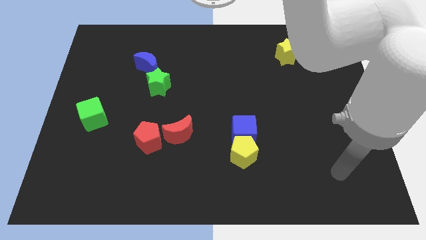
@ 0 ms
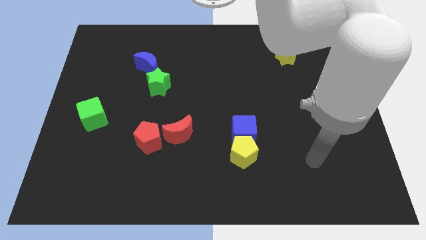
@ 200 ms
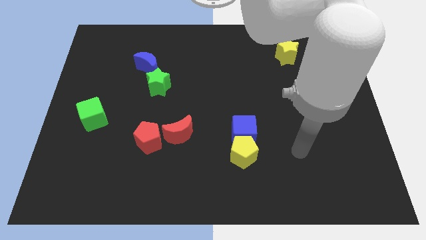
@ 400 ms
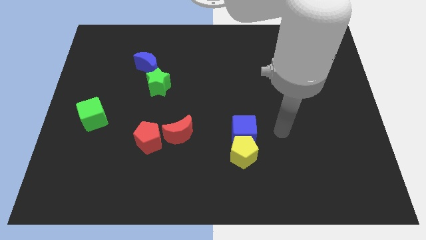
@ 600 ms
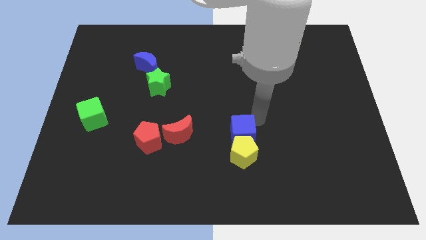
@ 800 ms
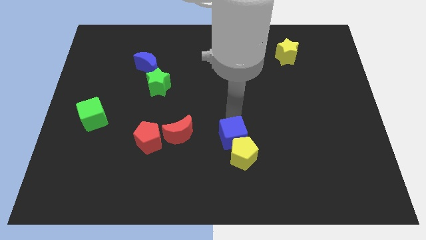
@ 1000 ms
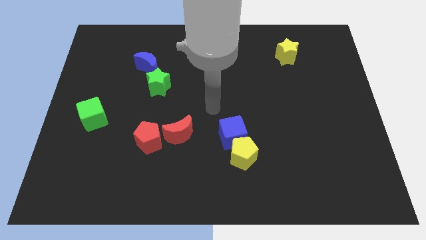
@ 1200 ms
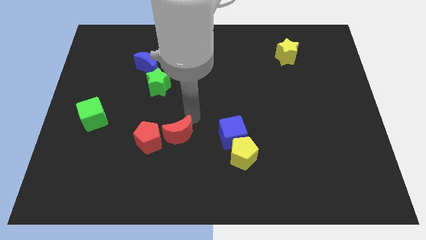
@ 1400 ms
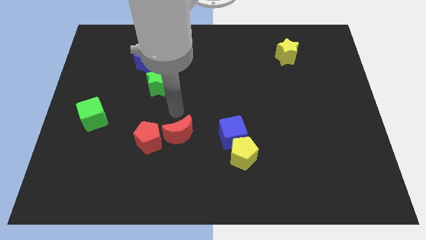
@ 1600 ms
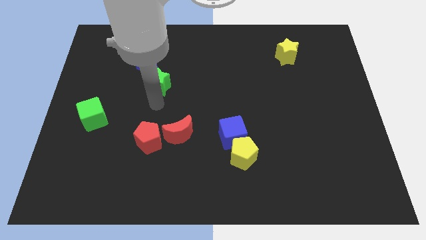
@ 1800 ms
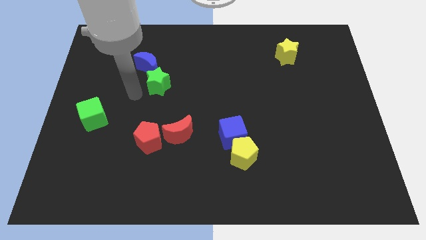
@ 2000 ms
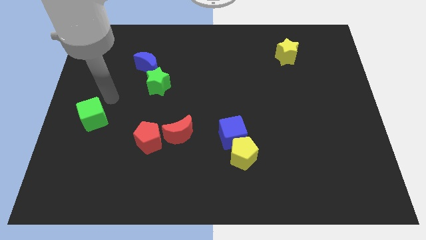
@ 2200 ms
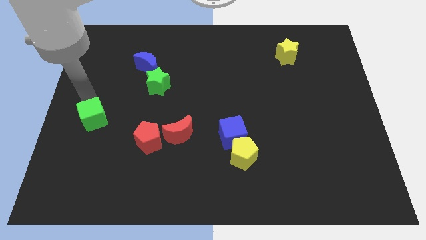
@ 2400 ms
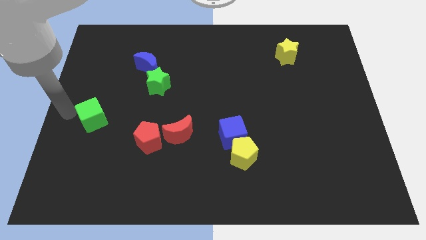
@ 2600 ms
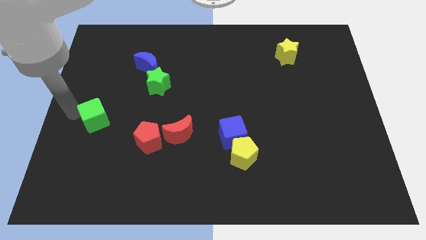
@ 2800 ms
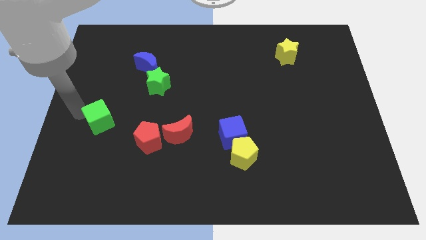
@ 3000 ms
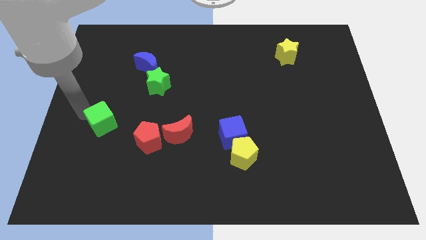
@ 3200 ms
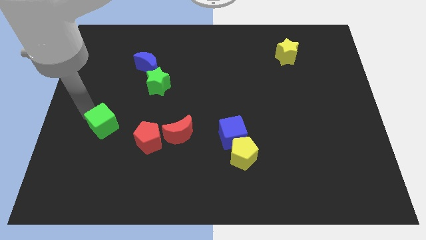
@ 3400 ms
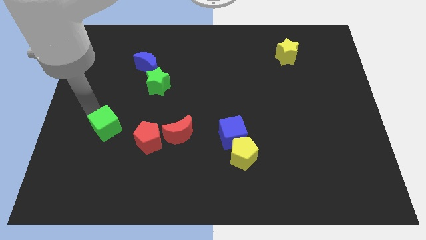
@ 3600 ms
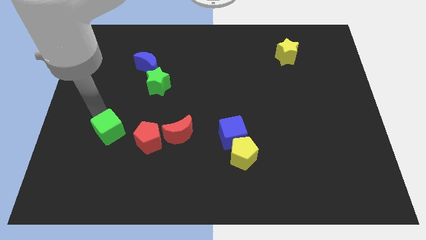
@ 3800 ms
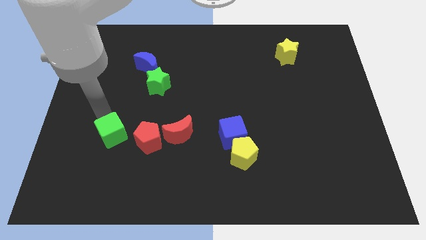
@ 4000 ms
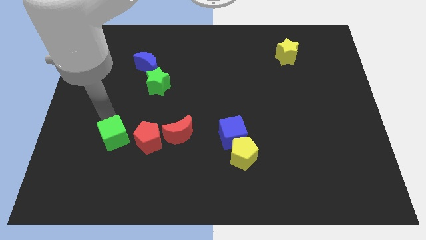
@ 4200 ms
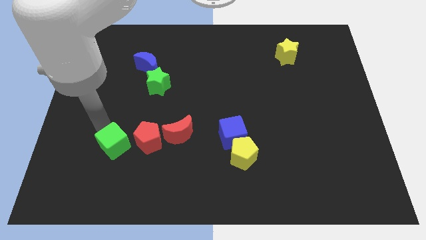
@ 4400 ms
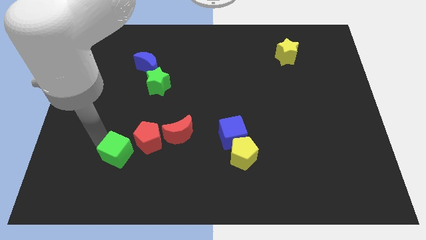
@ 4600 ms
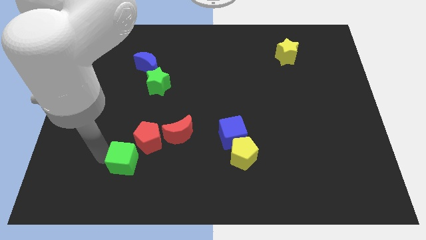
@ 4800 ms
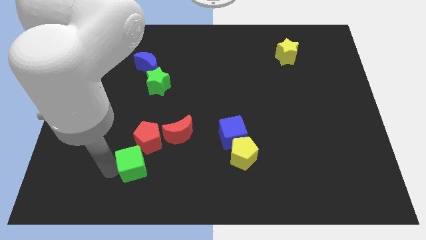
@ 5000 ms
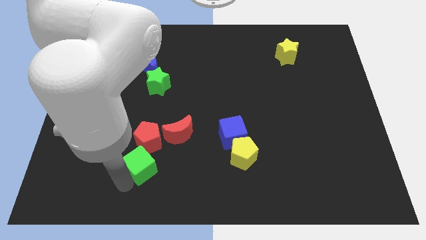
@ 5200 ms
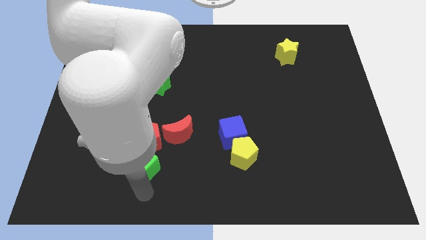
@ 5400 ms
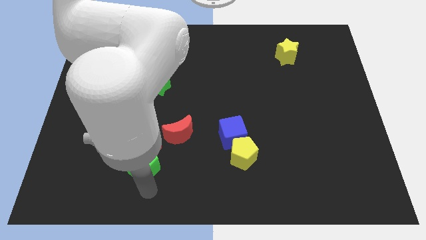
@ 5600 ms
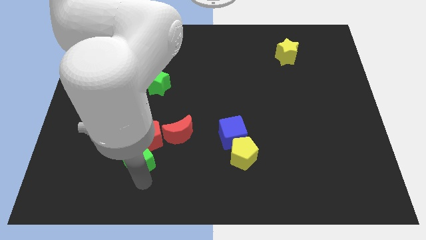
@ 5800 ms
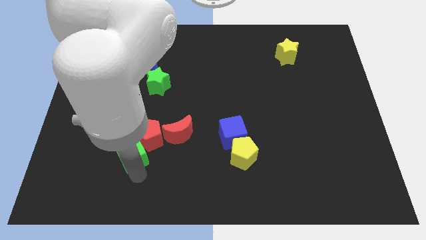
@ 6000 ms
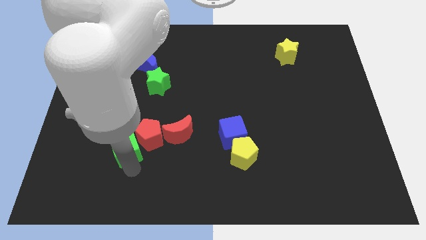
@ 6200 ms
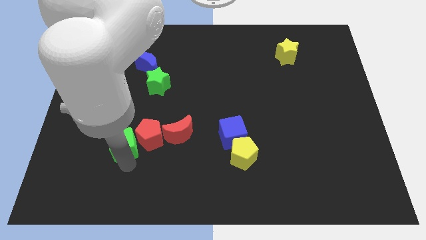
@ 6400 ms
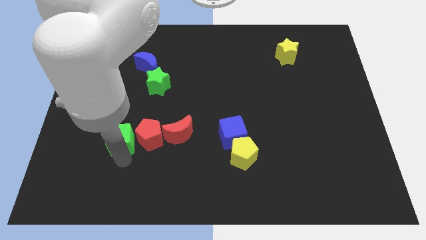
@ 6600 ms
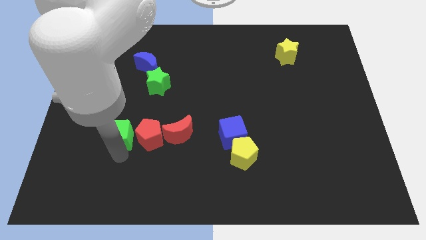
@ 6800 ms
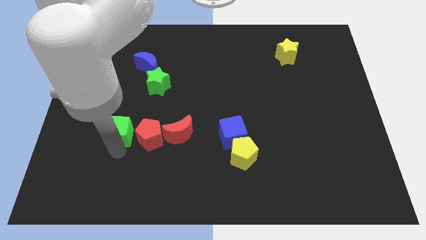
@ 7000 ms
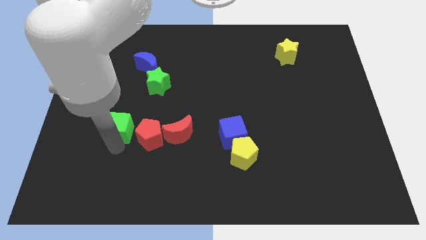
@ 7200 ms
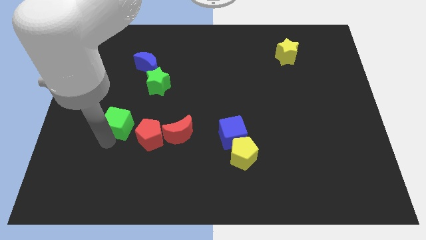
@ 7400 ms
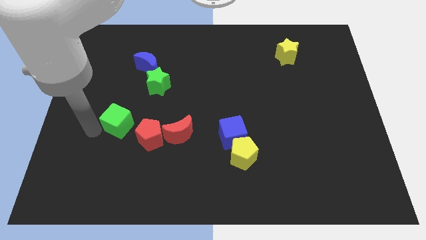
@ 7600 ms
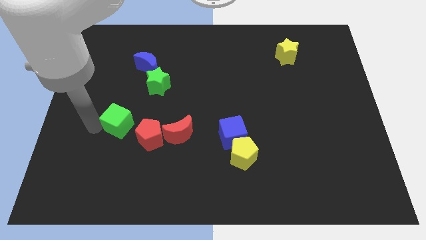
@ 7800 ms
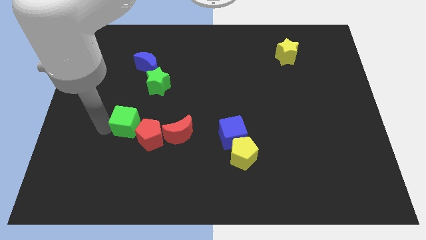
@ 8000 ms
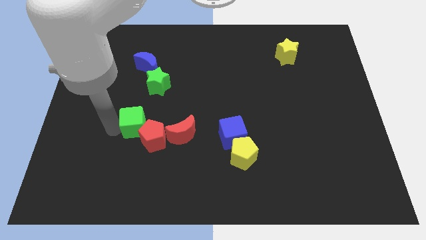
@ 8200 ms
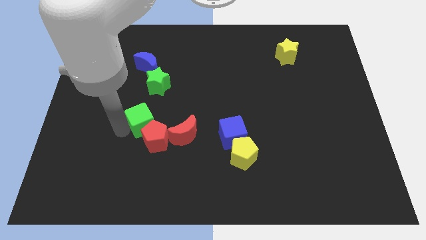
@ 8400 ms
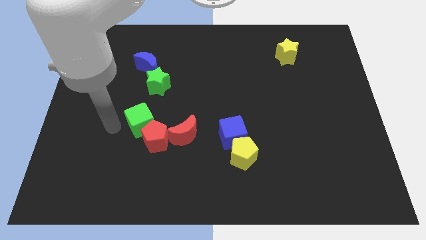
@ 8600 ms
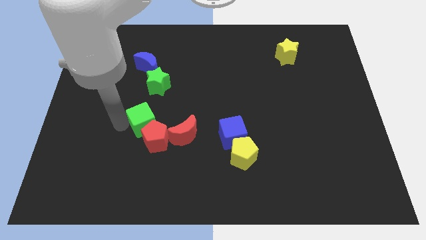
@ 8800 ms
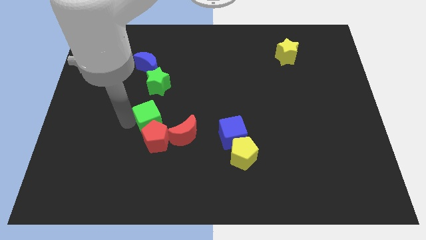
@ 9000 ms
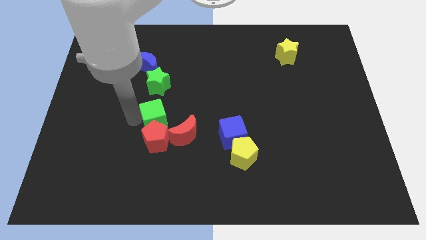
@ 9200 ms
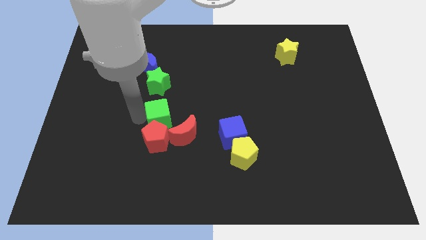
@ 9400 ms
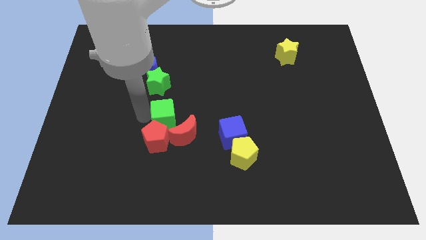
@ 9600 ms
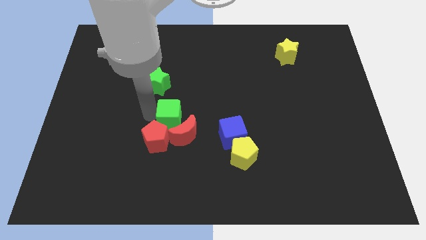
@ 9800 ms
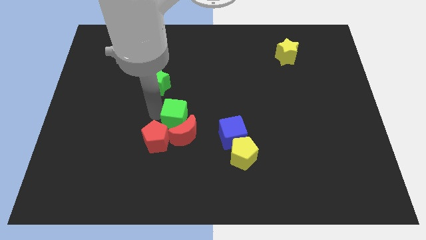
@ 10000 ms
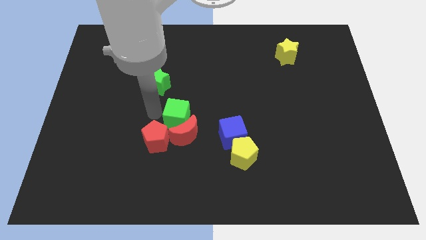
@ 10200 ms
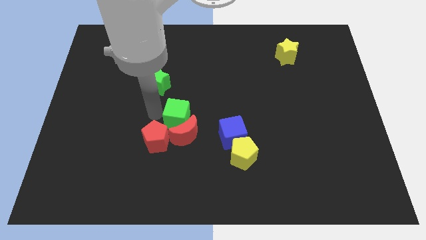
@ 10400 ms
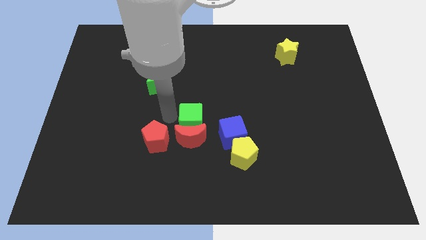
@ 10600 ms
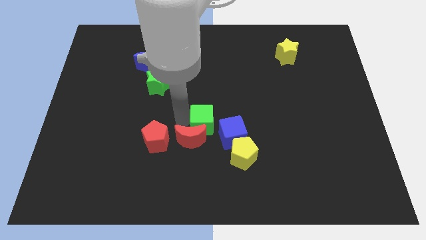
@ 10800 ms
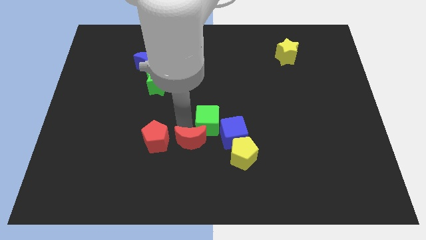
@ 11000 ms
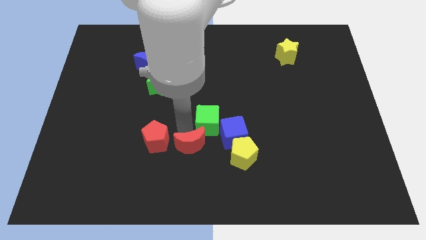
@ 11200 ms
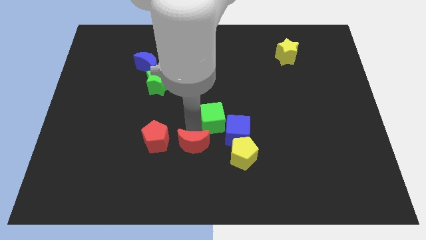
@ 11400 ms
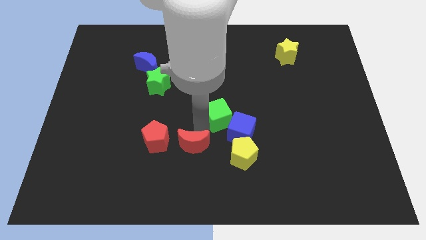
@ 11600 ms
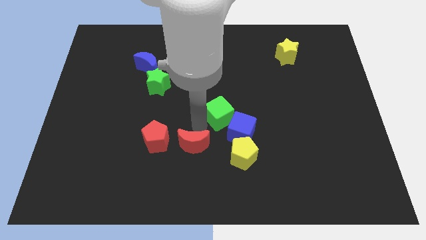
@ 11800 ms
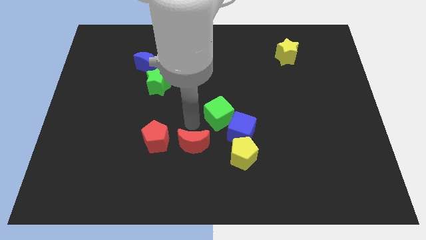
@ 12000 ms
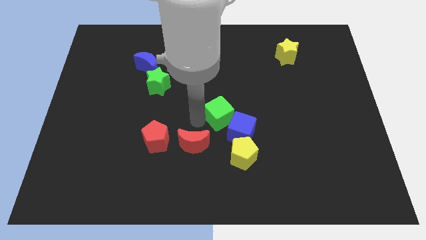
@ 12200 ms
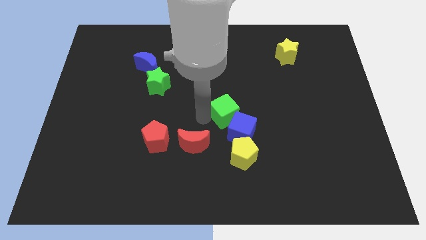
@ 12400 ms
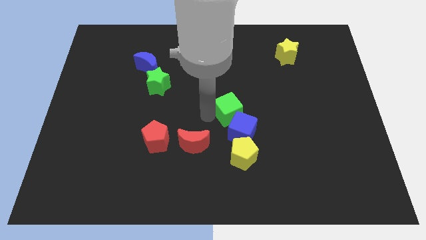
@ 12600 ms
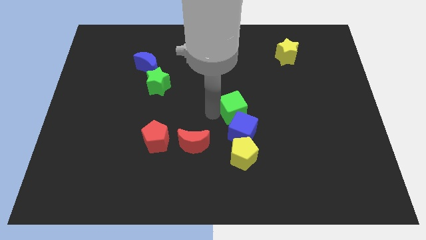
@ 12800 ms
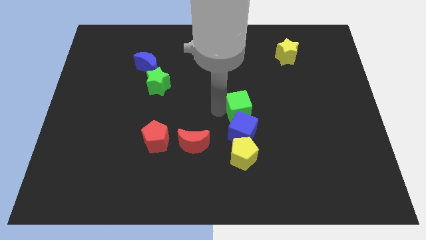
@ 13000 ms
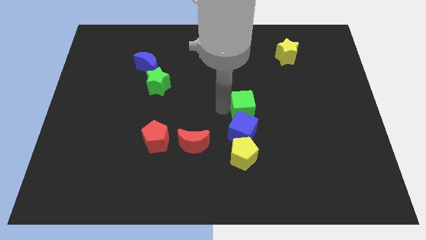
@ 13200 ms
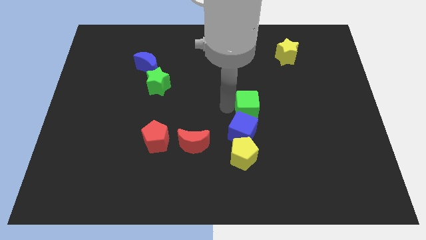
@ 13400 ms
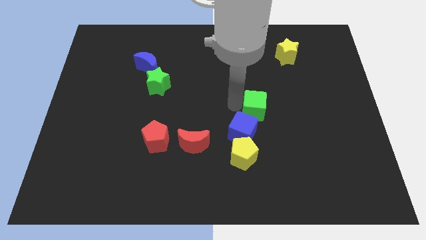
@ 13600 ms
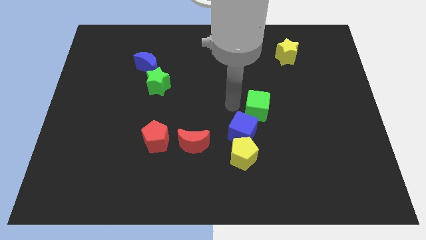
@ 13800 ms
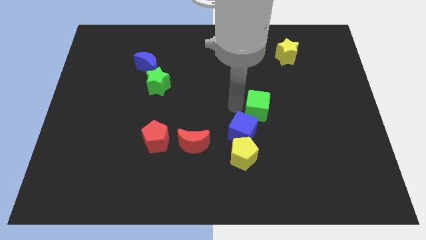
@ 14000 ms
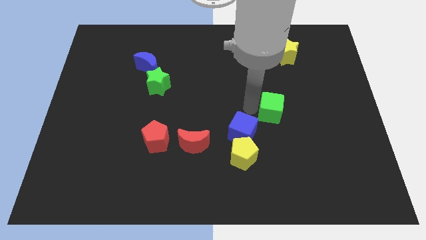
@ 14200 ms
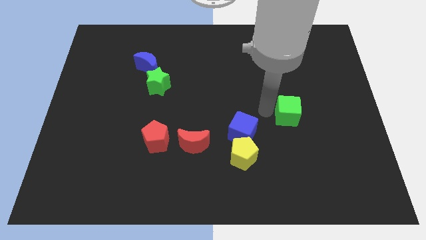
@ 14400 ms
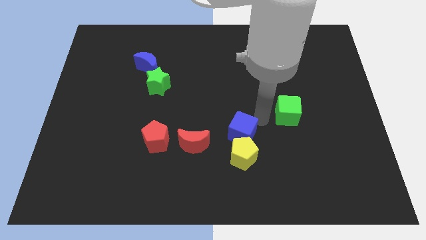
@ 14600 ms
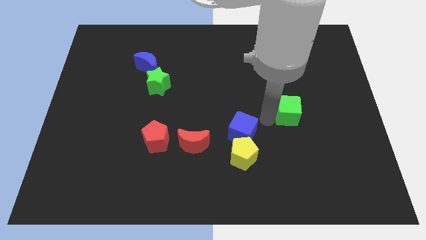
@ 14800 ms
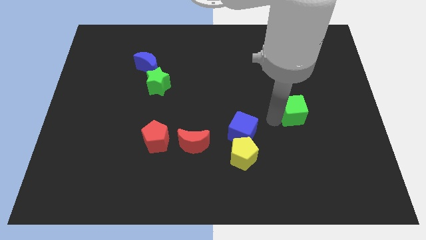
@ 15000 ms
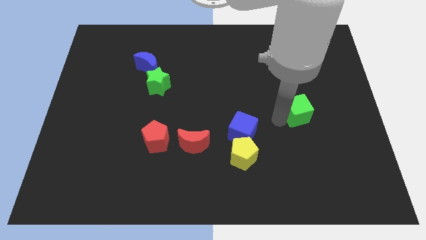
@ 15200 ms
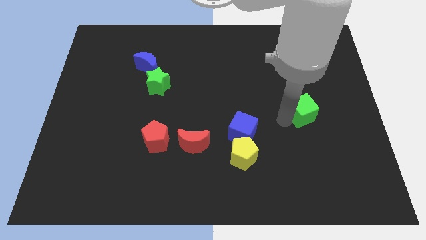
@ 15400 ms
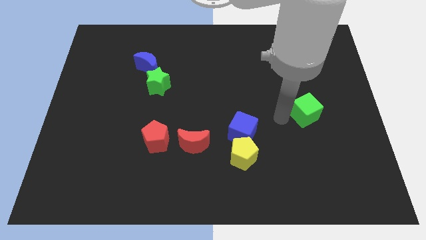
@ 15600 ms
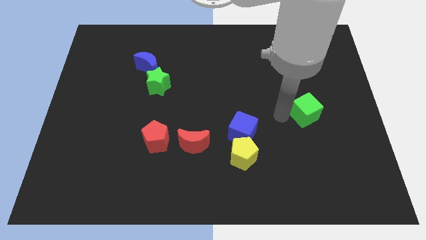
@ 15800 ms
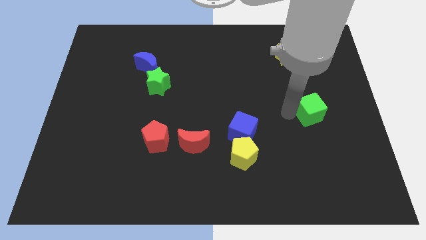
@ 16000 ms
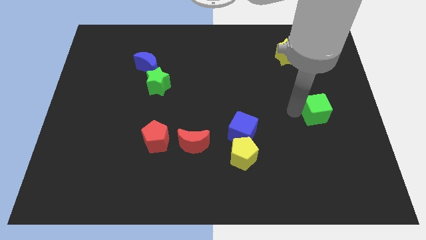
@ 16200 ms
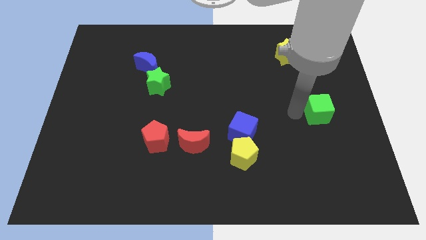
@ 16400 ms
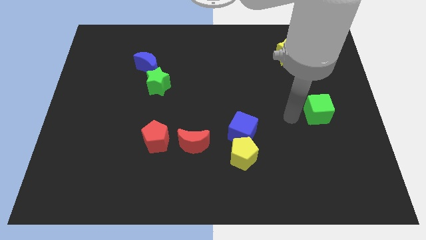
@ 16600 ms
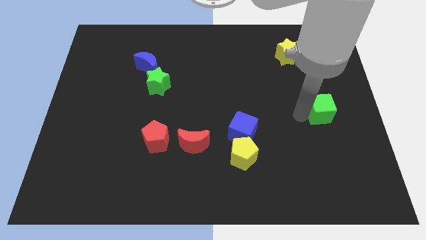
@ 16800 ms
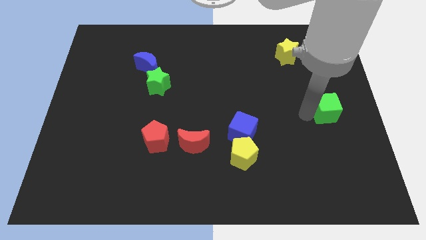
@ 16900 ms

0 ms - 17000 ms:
put the green cube to the right side of the board
